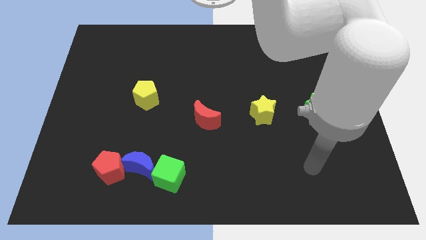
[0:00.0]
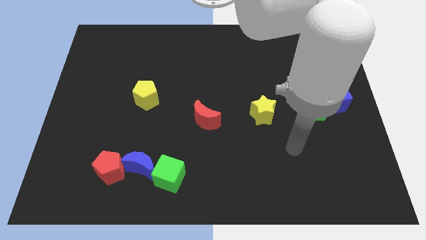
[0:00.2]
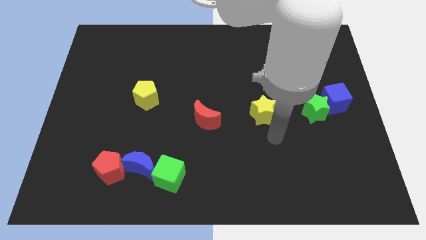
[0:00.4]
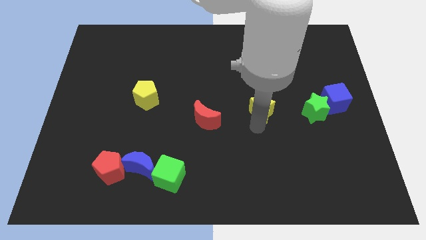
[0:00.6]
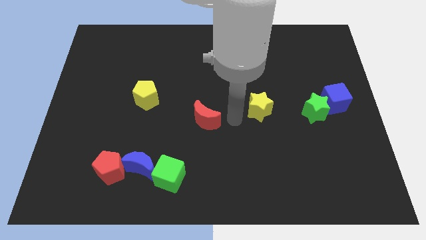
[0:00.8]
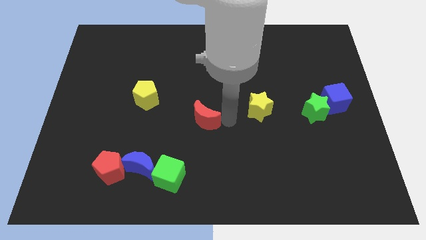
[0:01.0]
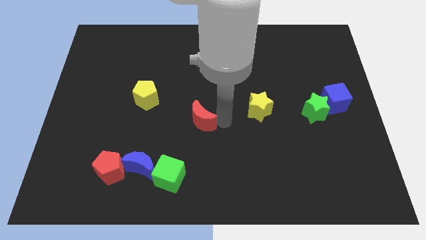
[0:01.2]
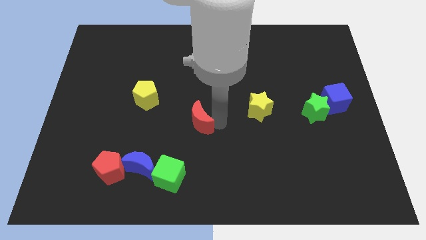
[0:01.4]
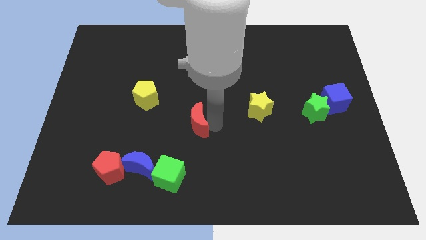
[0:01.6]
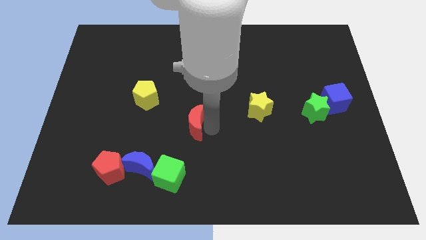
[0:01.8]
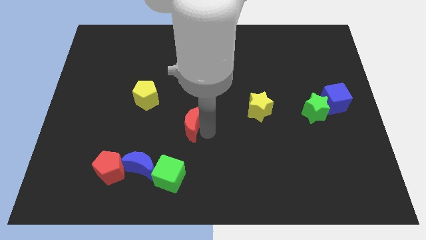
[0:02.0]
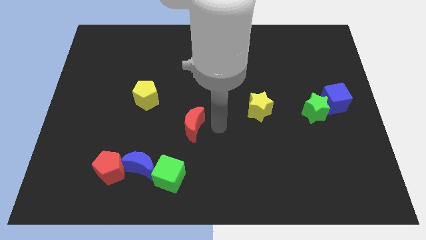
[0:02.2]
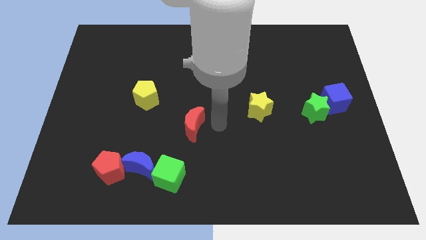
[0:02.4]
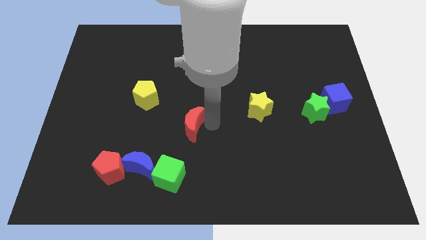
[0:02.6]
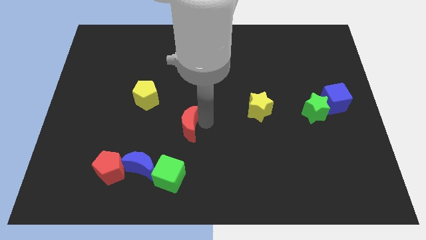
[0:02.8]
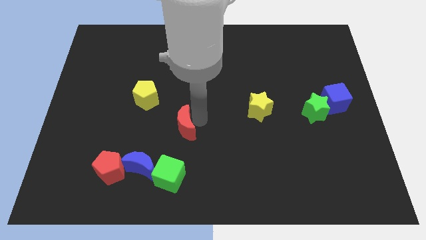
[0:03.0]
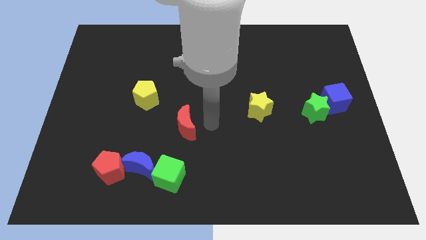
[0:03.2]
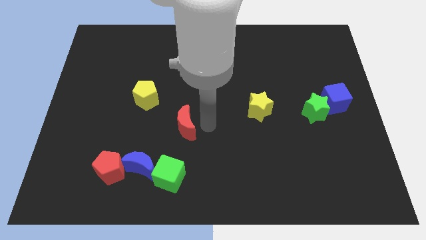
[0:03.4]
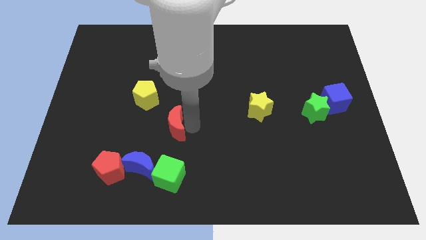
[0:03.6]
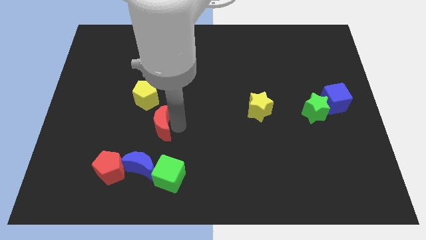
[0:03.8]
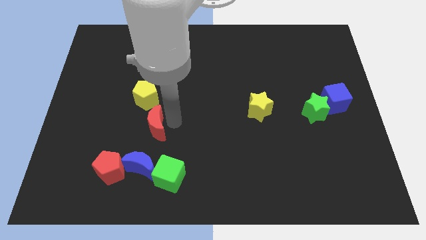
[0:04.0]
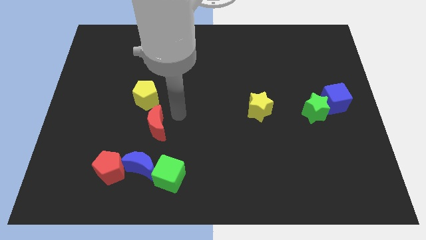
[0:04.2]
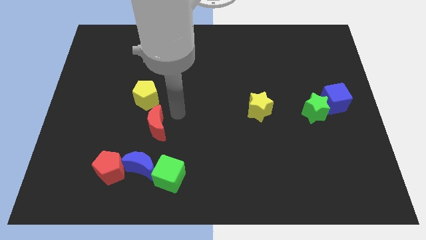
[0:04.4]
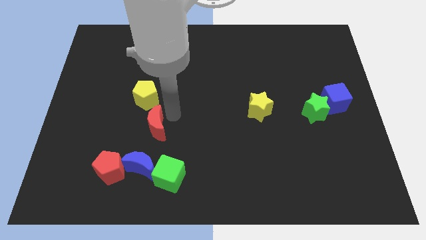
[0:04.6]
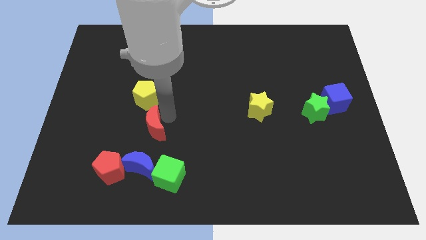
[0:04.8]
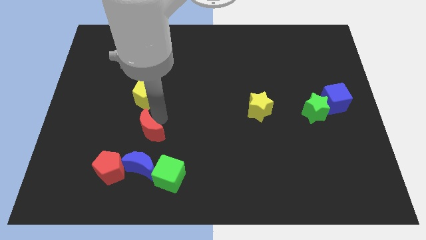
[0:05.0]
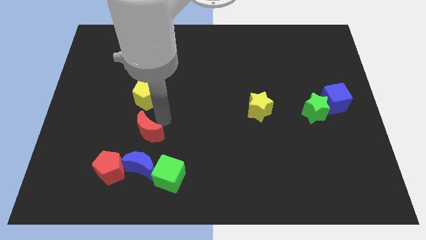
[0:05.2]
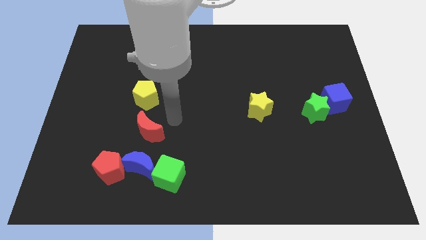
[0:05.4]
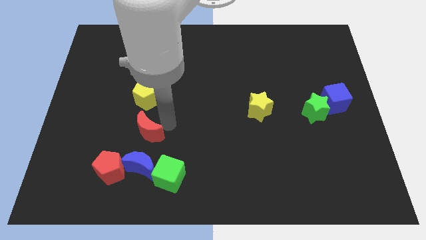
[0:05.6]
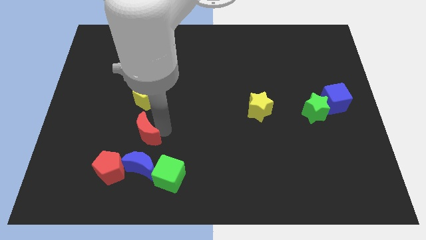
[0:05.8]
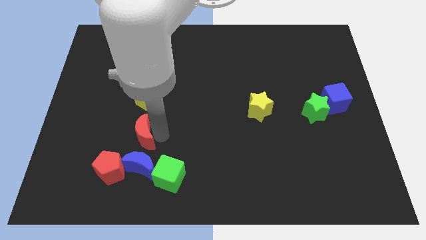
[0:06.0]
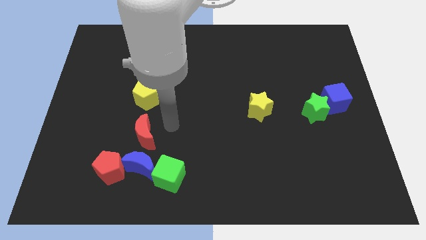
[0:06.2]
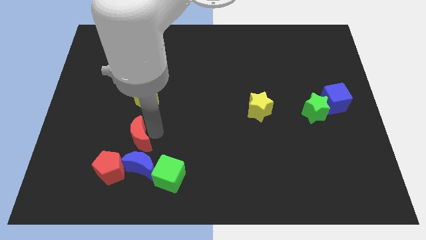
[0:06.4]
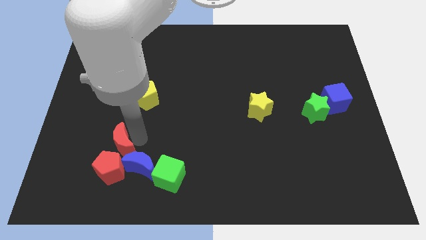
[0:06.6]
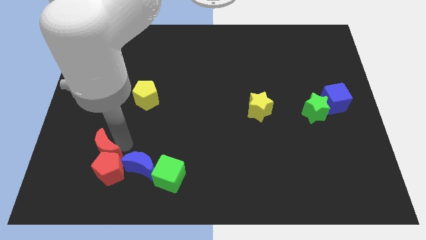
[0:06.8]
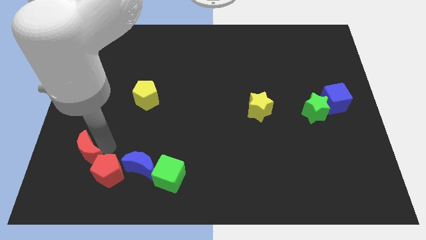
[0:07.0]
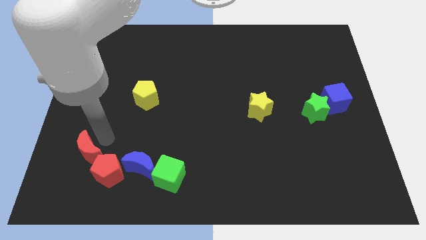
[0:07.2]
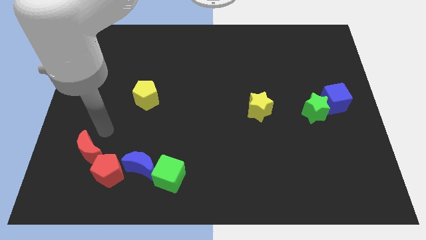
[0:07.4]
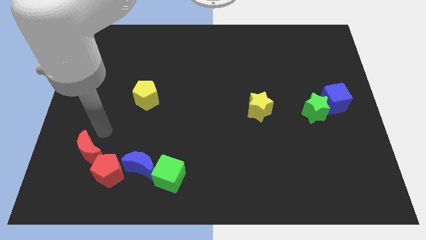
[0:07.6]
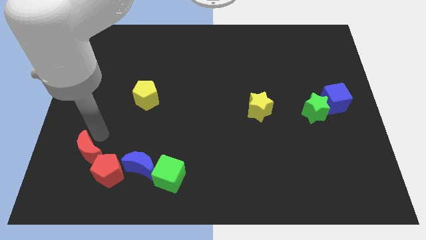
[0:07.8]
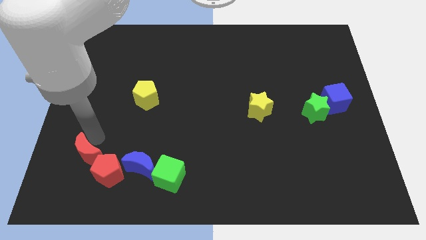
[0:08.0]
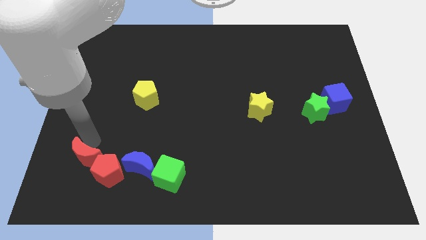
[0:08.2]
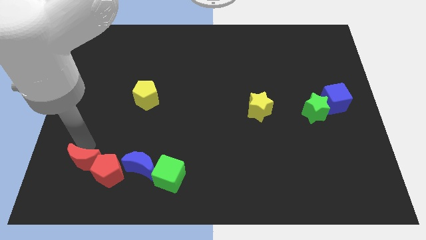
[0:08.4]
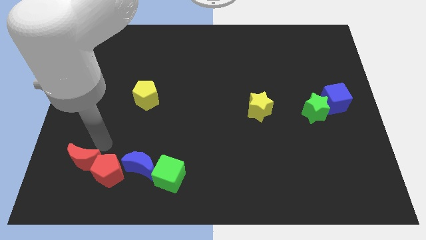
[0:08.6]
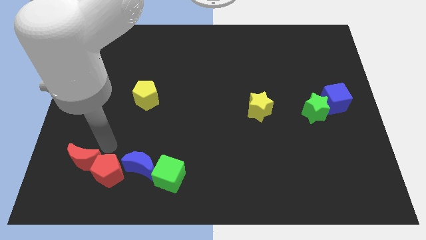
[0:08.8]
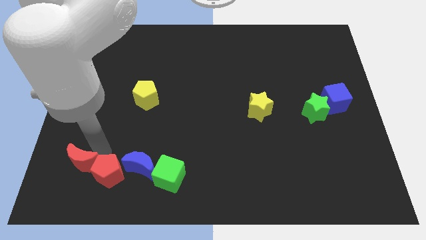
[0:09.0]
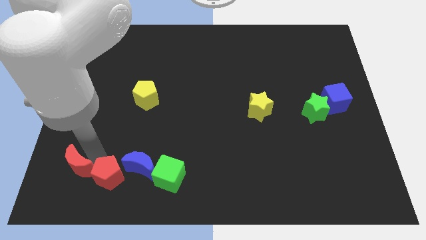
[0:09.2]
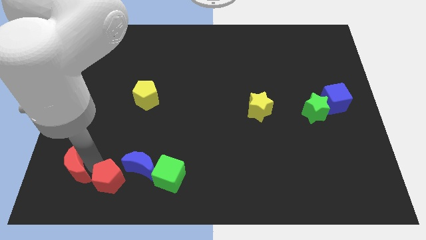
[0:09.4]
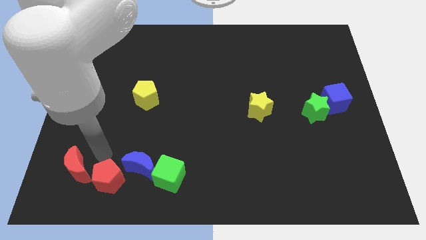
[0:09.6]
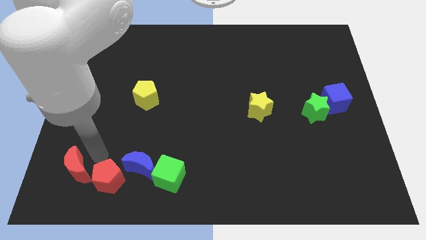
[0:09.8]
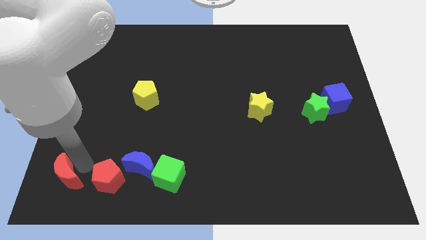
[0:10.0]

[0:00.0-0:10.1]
push the red moon to the bottom left

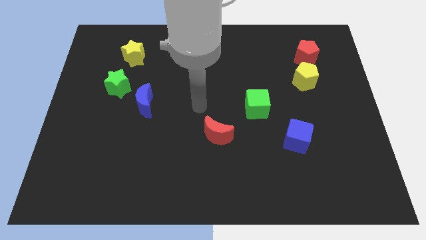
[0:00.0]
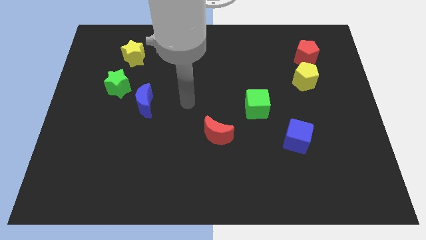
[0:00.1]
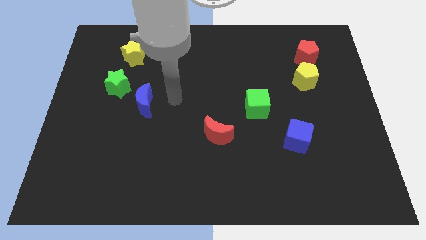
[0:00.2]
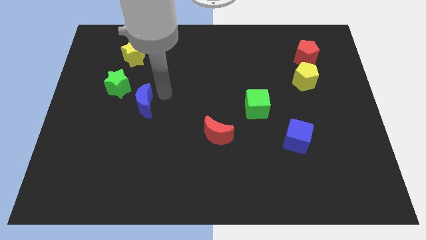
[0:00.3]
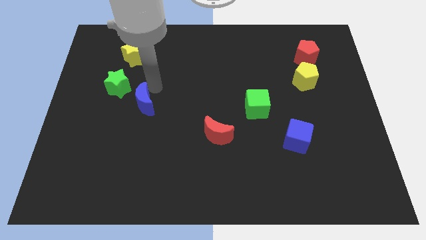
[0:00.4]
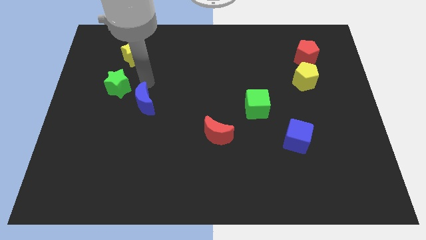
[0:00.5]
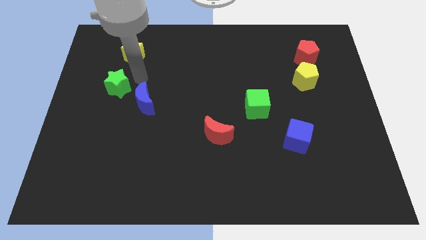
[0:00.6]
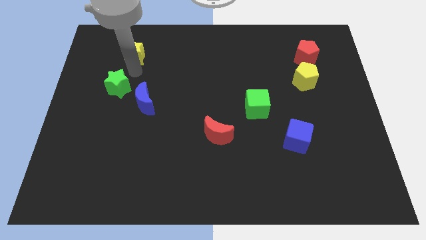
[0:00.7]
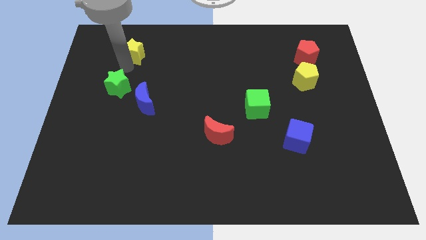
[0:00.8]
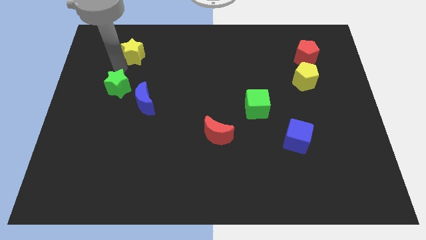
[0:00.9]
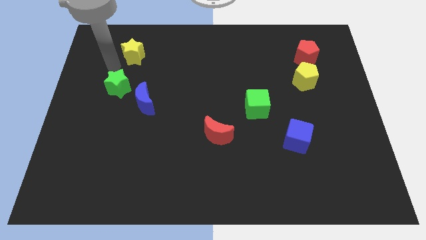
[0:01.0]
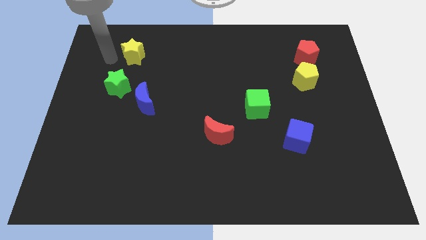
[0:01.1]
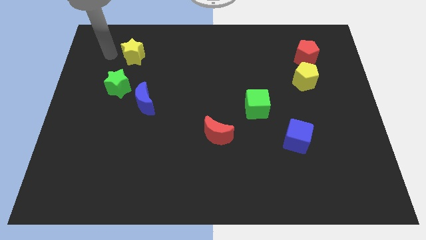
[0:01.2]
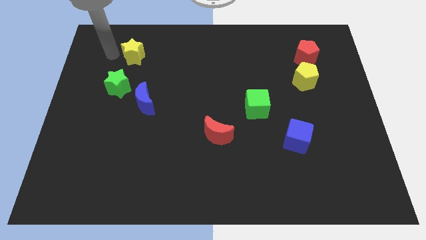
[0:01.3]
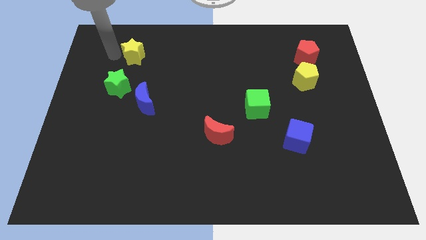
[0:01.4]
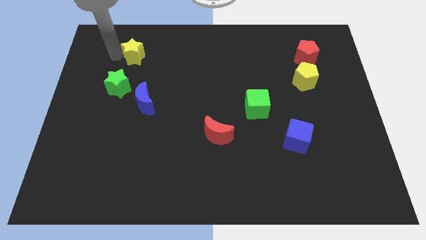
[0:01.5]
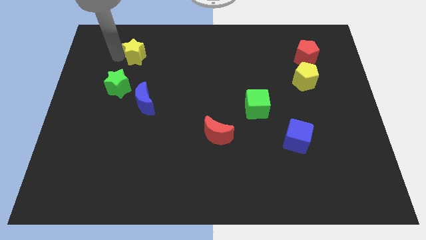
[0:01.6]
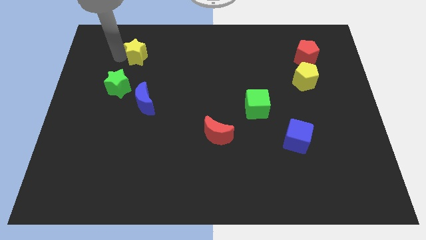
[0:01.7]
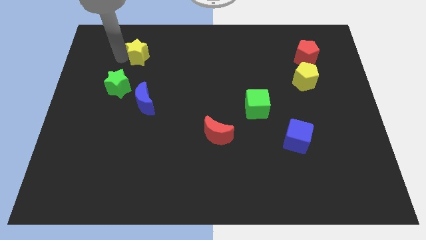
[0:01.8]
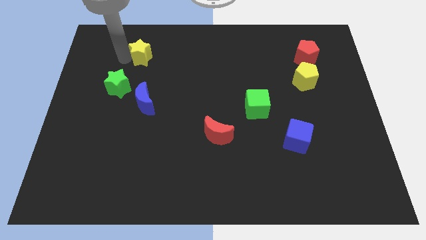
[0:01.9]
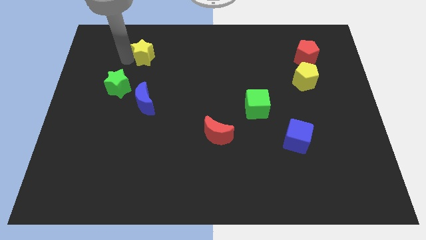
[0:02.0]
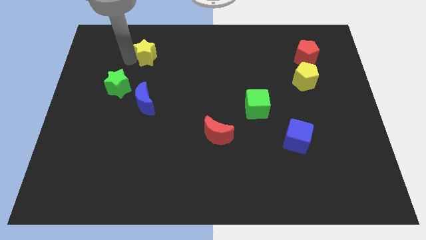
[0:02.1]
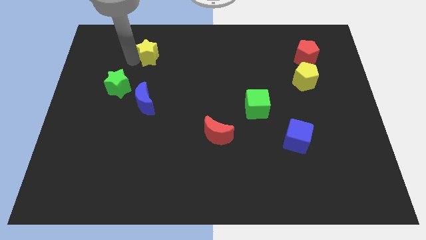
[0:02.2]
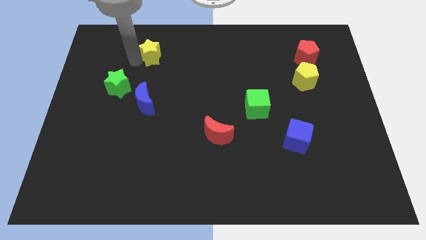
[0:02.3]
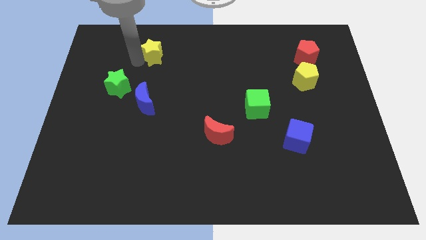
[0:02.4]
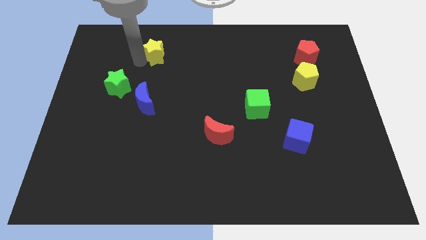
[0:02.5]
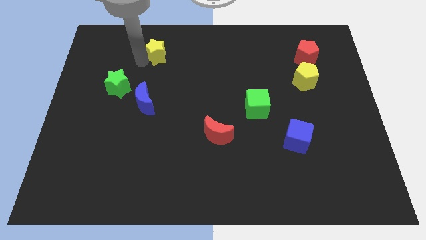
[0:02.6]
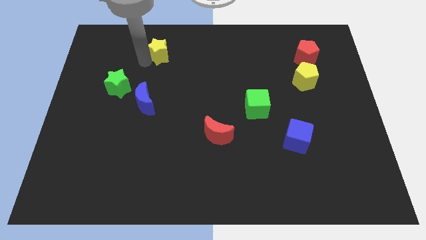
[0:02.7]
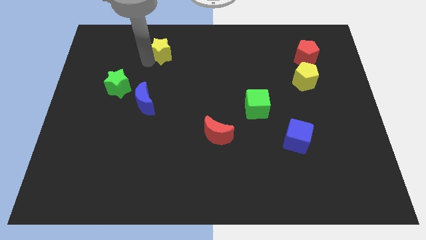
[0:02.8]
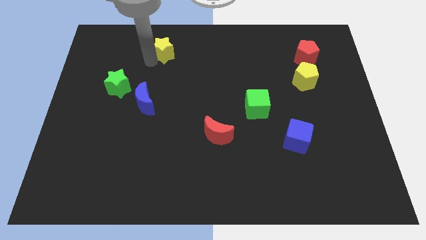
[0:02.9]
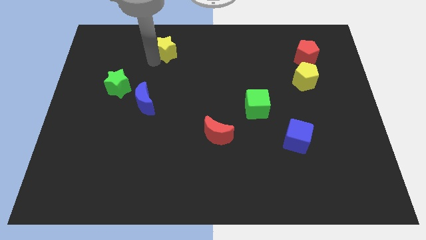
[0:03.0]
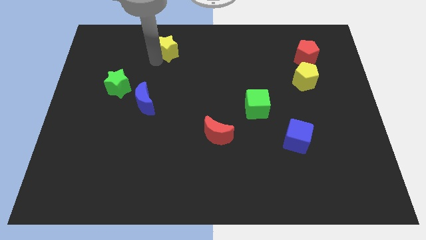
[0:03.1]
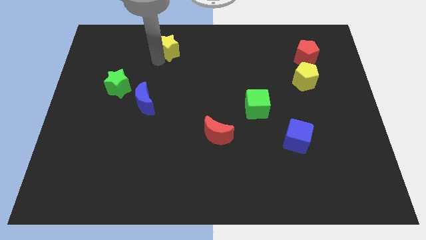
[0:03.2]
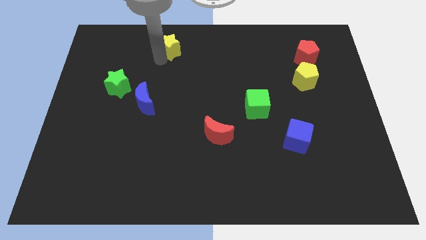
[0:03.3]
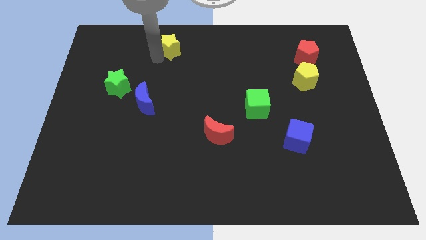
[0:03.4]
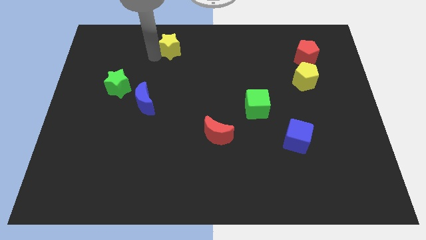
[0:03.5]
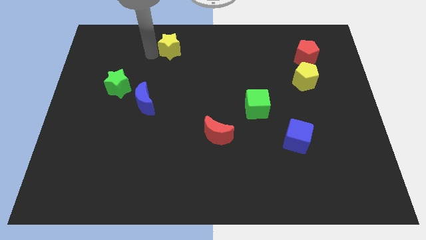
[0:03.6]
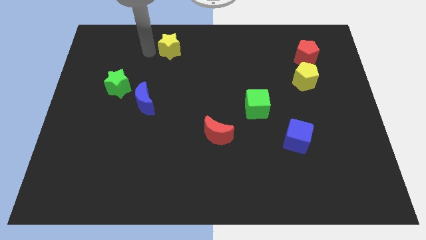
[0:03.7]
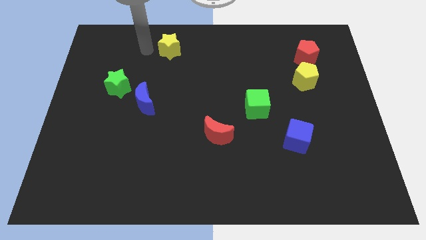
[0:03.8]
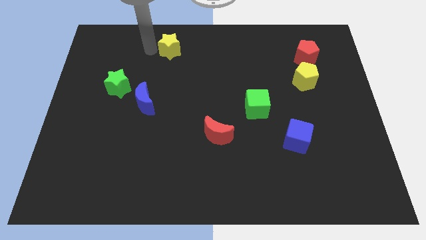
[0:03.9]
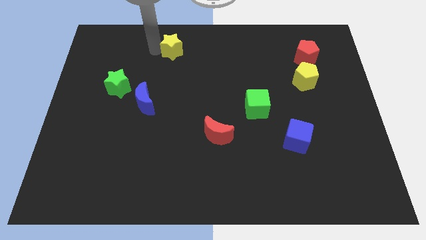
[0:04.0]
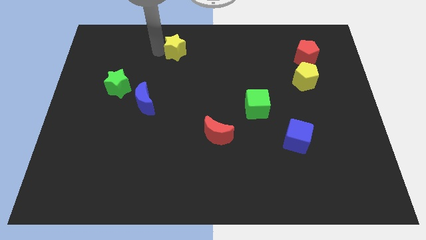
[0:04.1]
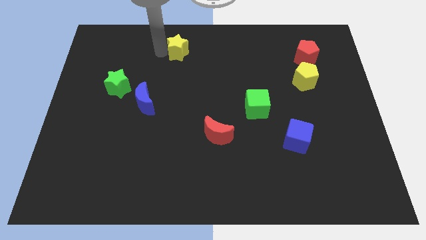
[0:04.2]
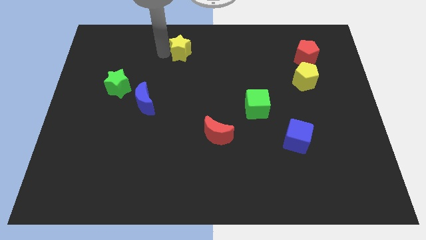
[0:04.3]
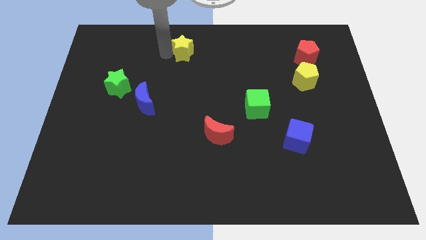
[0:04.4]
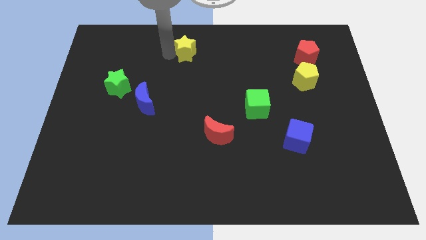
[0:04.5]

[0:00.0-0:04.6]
move the yellow star to the towards your base
